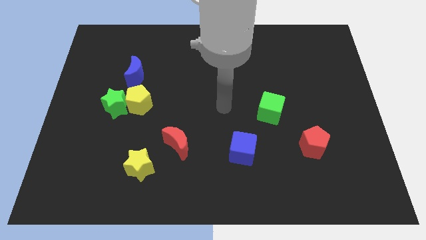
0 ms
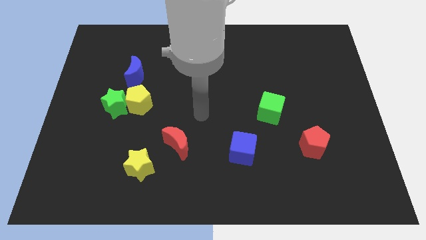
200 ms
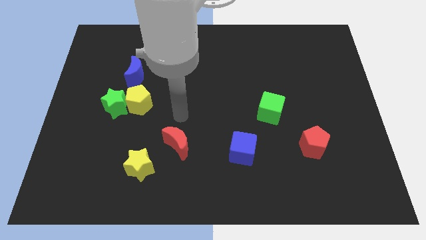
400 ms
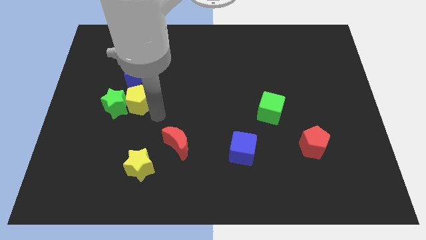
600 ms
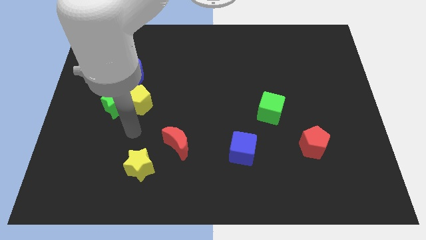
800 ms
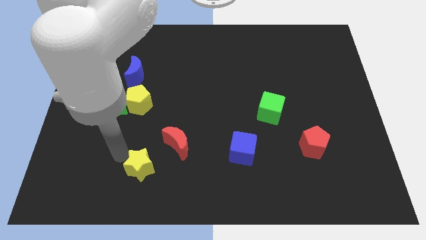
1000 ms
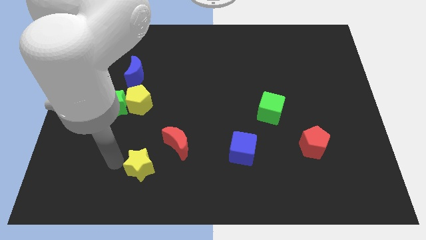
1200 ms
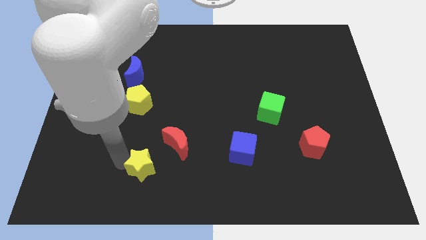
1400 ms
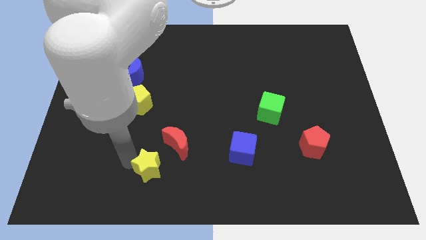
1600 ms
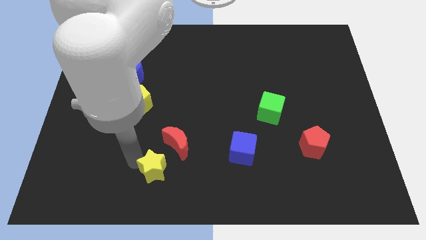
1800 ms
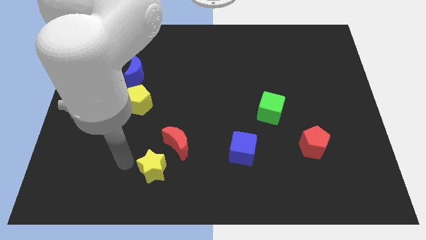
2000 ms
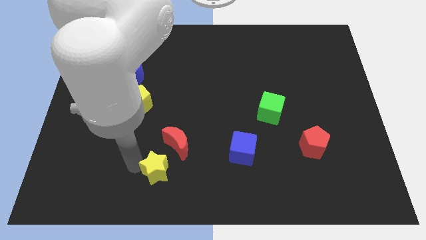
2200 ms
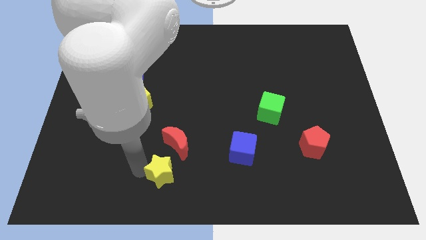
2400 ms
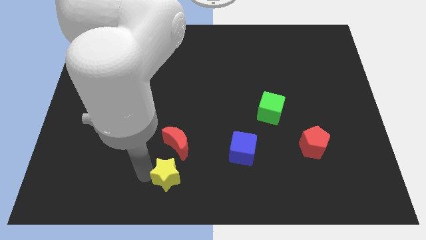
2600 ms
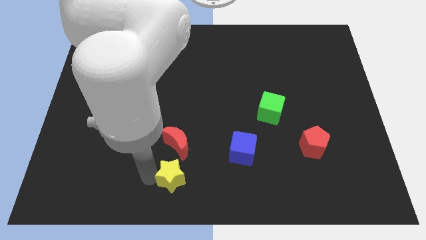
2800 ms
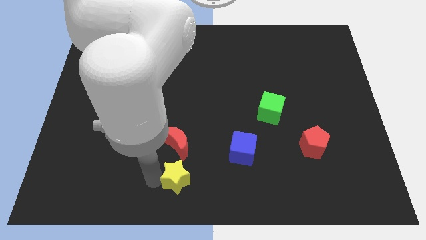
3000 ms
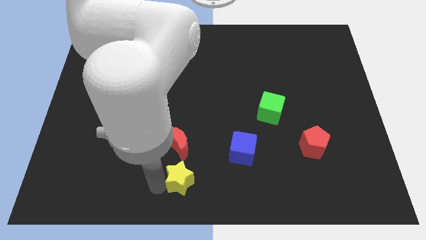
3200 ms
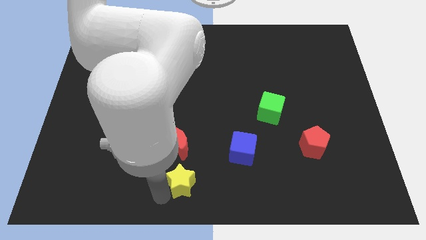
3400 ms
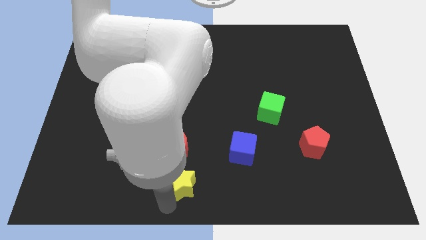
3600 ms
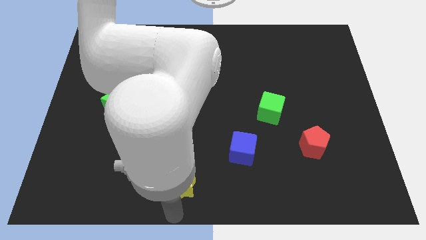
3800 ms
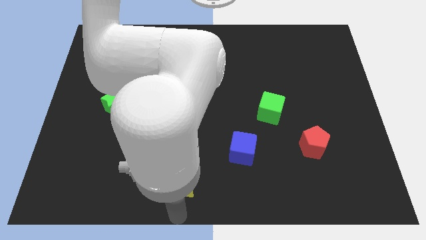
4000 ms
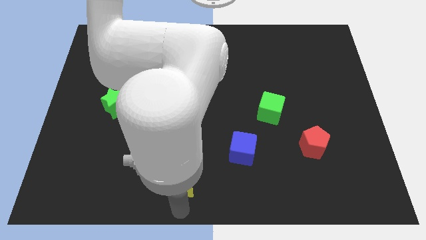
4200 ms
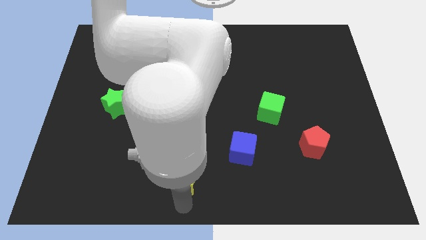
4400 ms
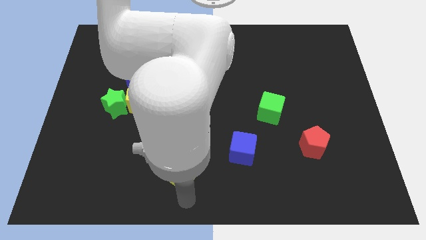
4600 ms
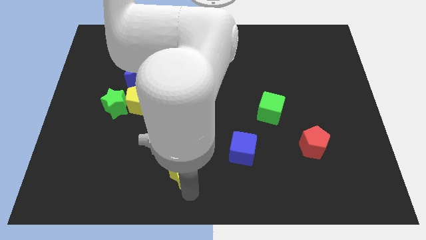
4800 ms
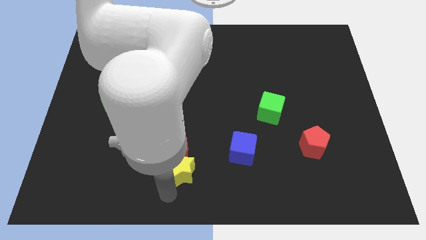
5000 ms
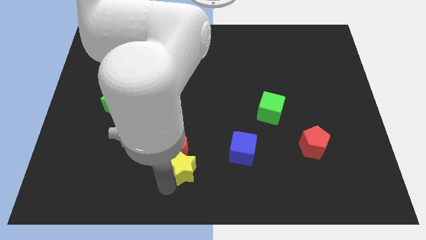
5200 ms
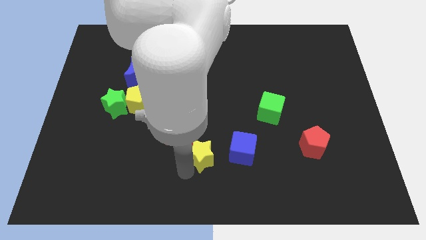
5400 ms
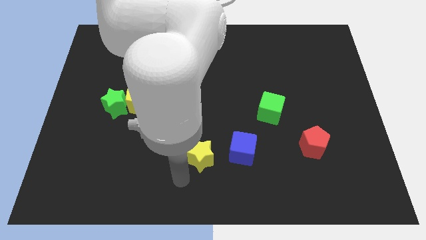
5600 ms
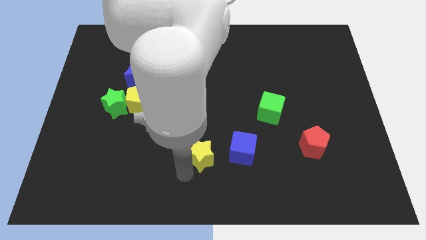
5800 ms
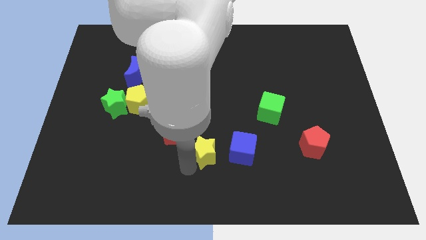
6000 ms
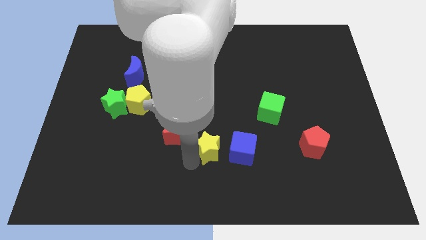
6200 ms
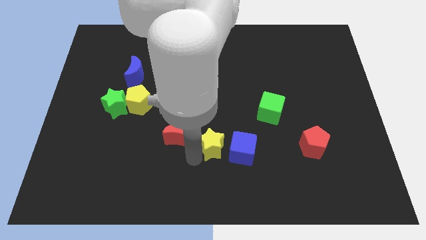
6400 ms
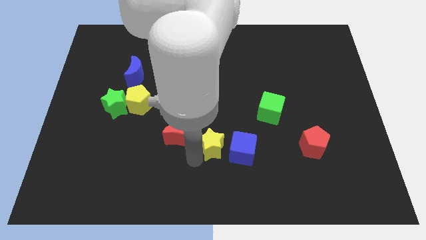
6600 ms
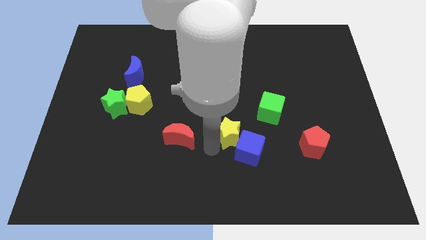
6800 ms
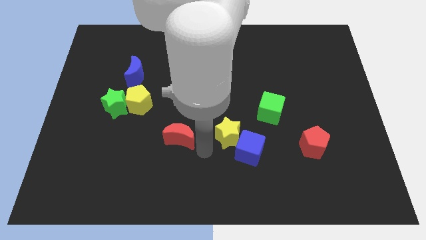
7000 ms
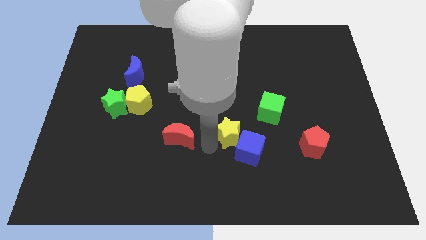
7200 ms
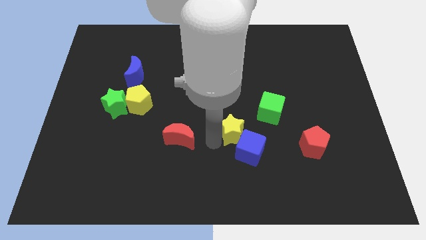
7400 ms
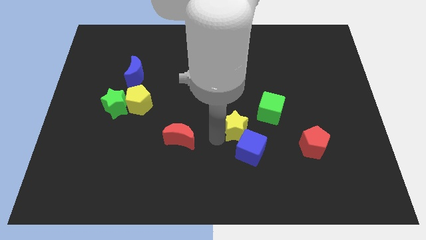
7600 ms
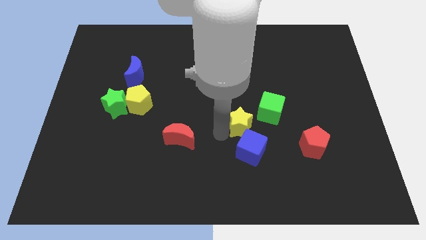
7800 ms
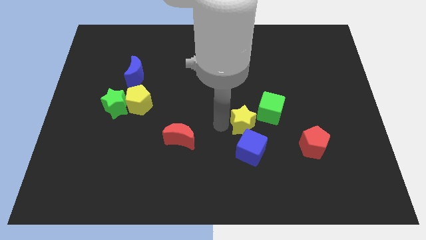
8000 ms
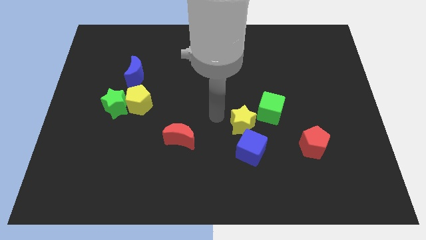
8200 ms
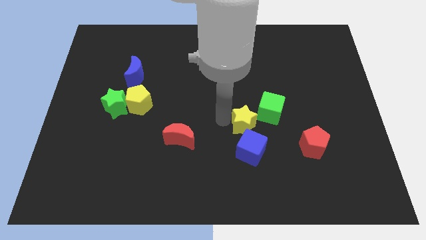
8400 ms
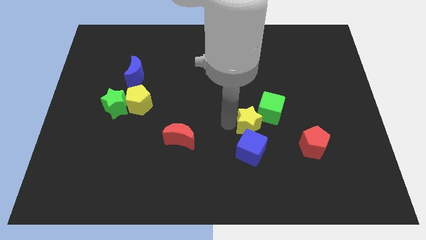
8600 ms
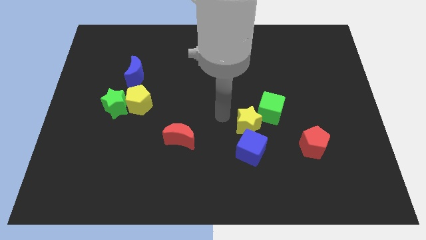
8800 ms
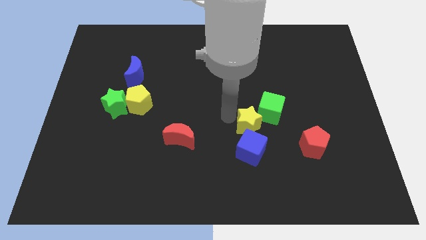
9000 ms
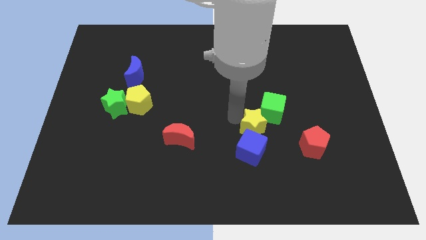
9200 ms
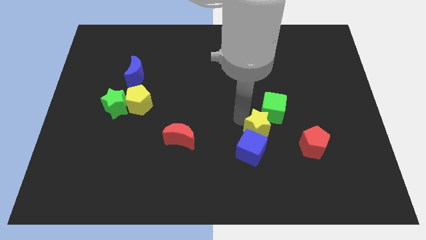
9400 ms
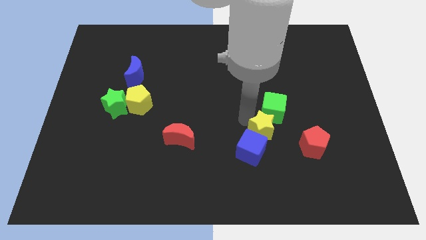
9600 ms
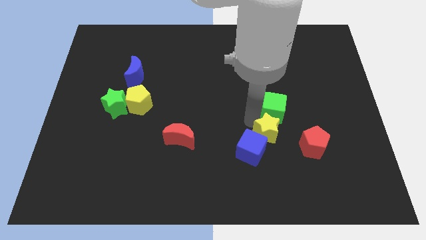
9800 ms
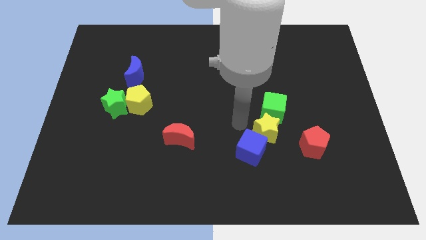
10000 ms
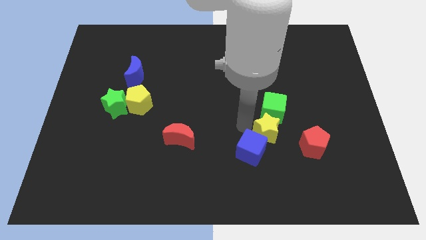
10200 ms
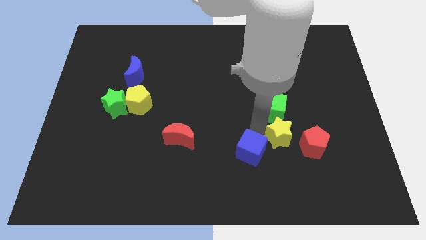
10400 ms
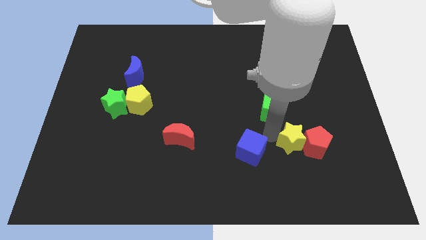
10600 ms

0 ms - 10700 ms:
push the yellow star close to the red pentagon

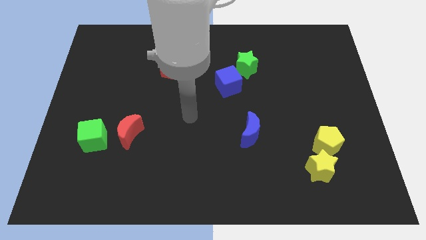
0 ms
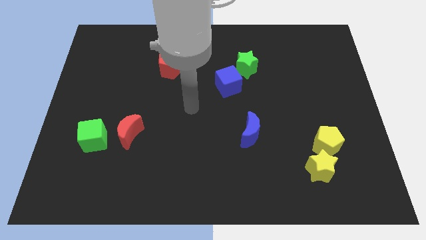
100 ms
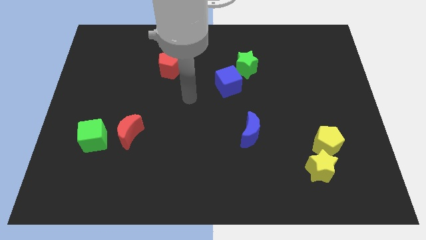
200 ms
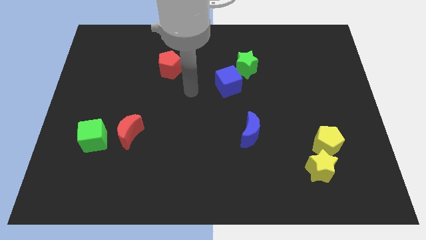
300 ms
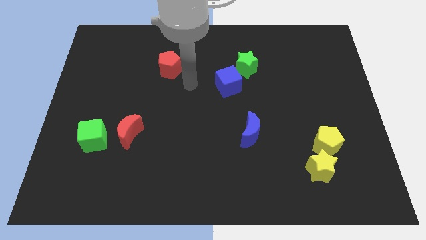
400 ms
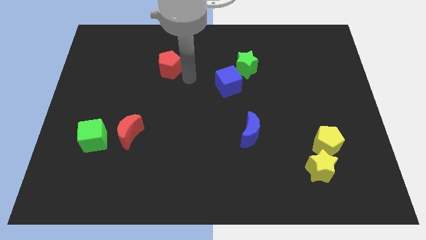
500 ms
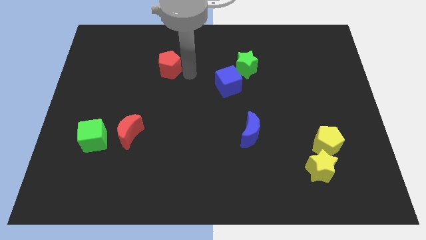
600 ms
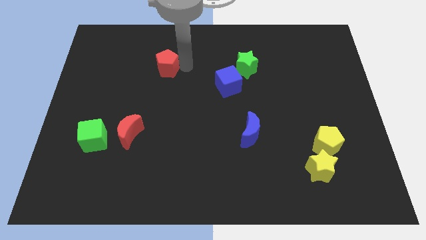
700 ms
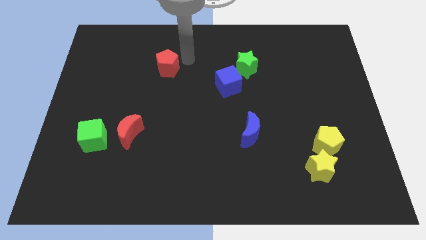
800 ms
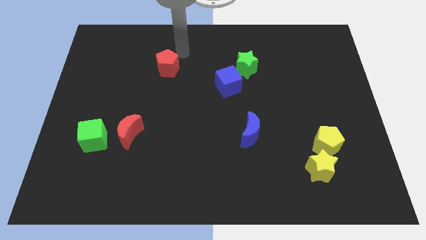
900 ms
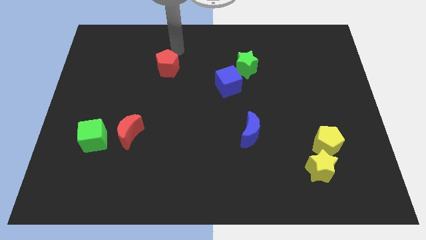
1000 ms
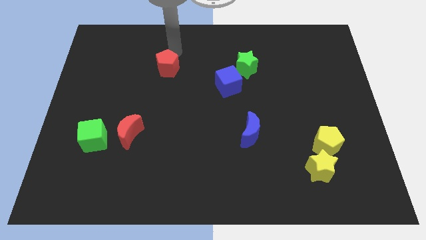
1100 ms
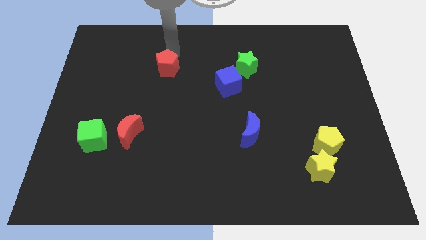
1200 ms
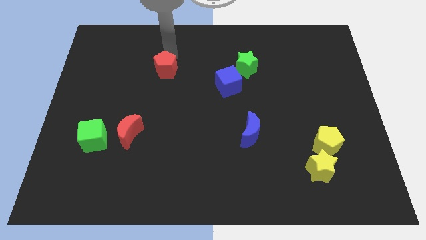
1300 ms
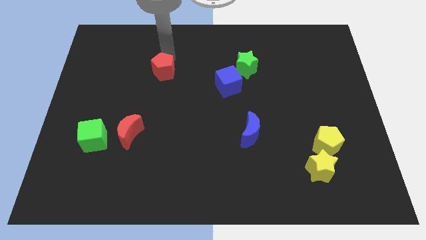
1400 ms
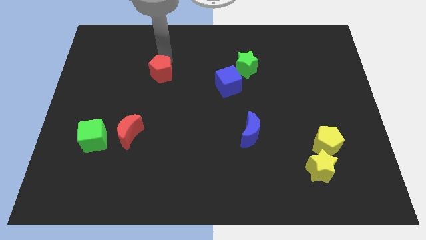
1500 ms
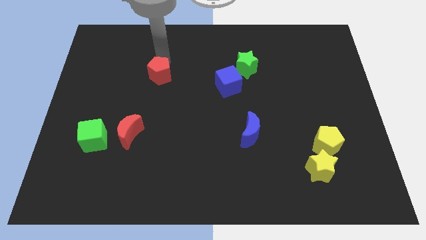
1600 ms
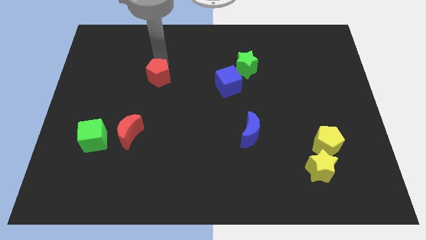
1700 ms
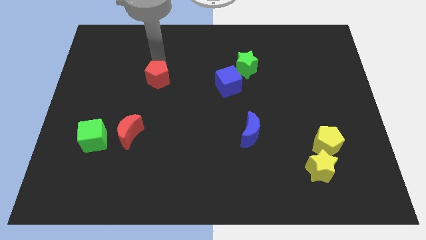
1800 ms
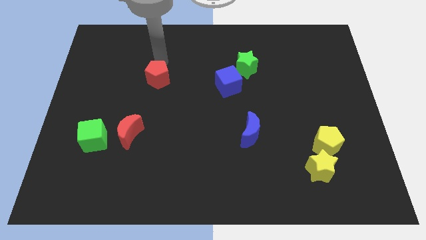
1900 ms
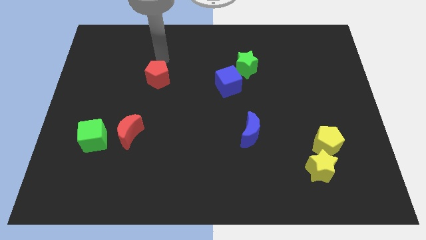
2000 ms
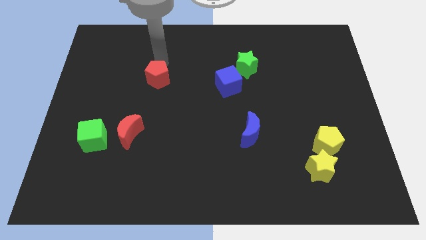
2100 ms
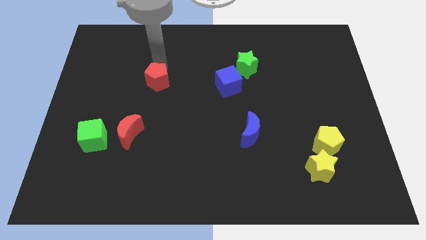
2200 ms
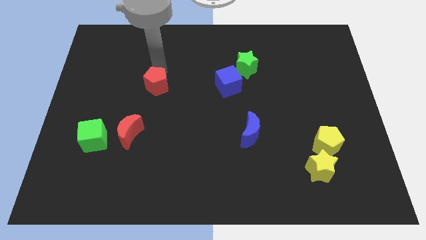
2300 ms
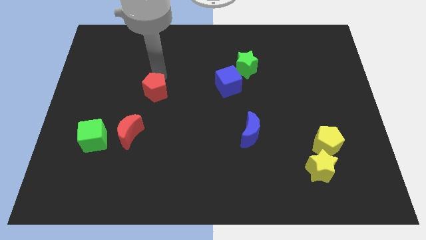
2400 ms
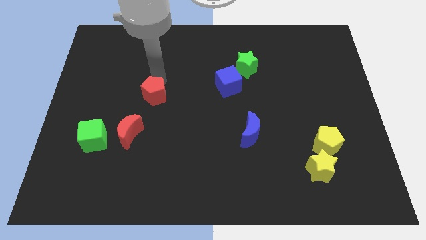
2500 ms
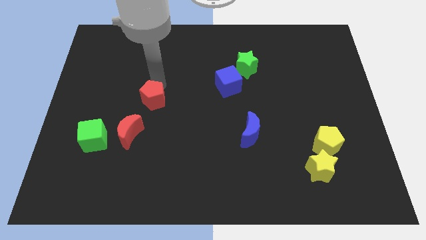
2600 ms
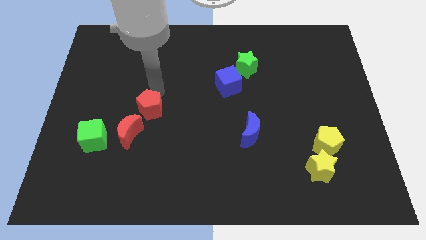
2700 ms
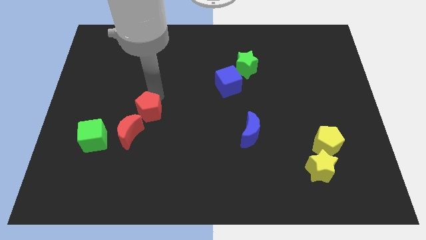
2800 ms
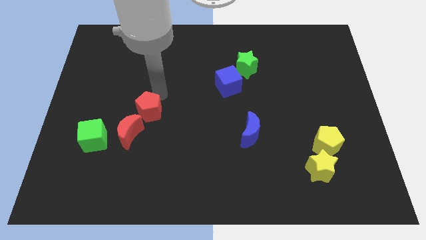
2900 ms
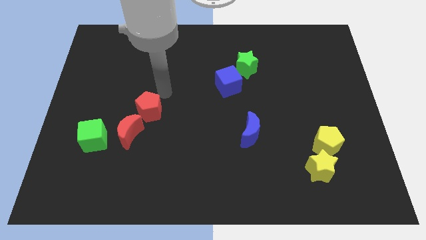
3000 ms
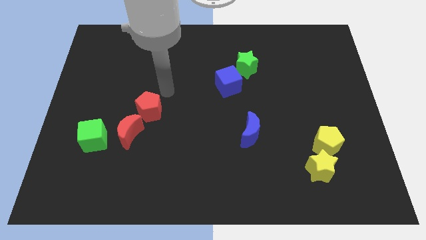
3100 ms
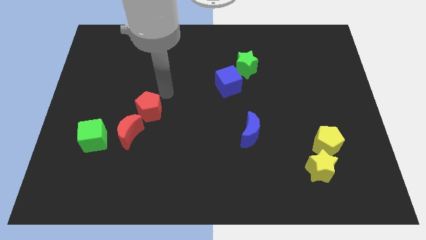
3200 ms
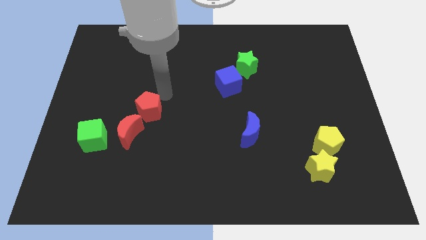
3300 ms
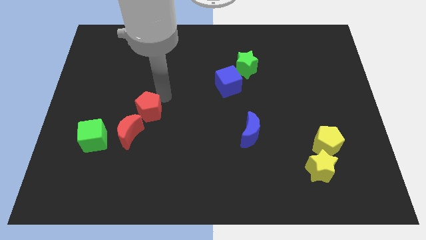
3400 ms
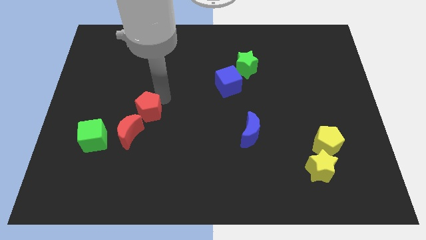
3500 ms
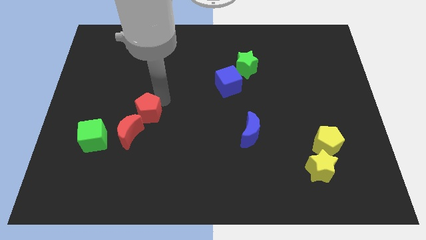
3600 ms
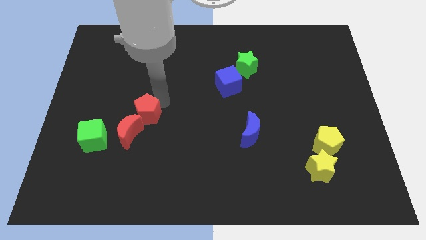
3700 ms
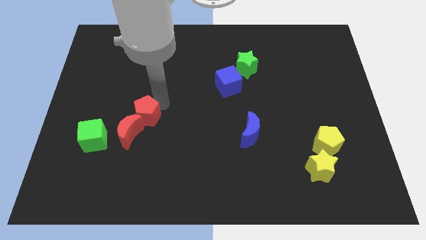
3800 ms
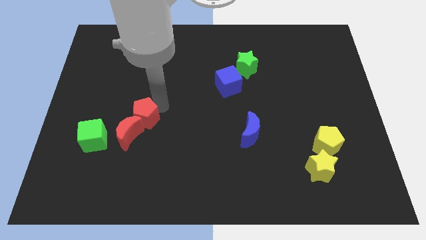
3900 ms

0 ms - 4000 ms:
slide the red pentagon close to the red moon
